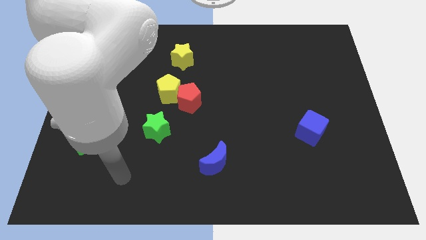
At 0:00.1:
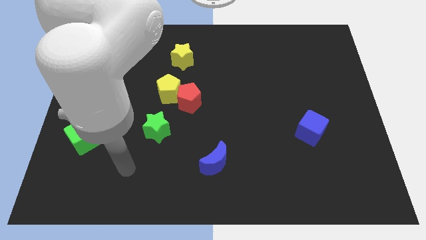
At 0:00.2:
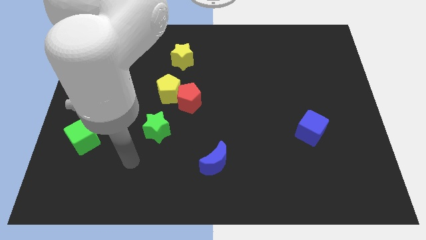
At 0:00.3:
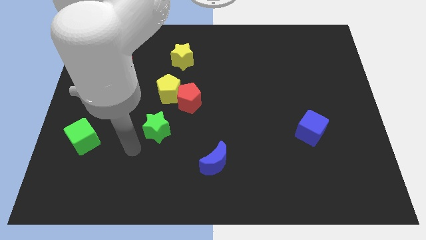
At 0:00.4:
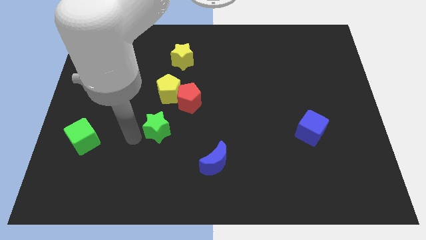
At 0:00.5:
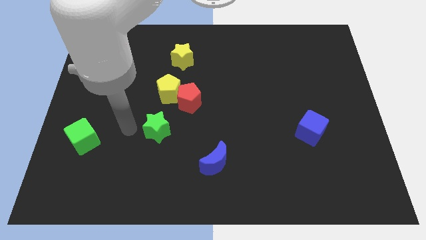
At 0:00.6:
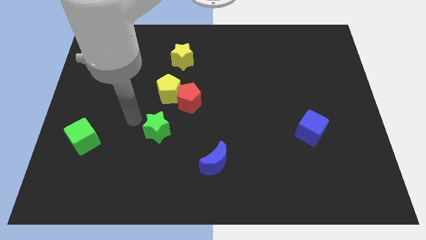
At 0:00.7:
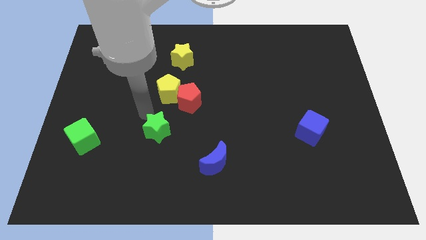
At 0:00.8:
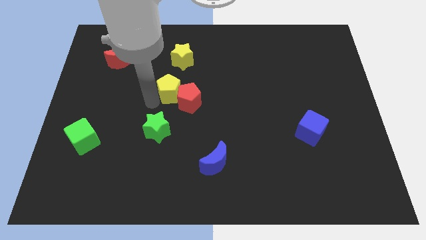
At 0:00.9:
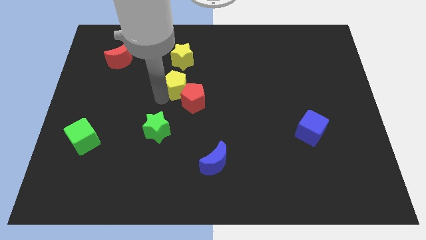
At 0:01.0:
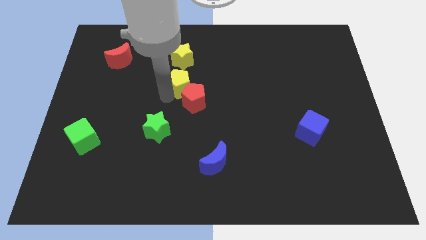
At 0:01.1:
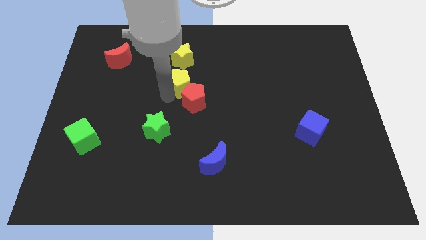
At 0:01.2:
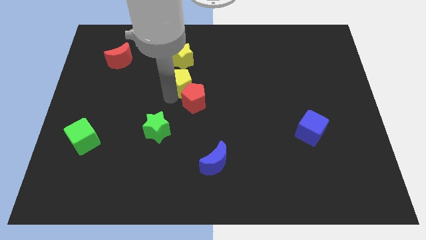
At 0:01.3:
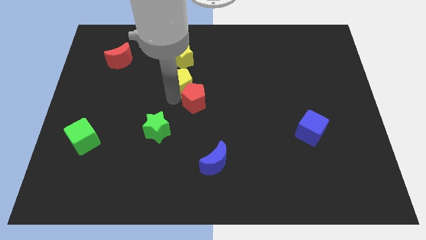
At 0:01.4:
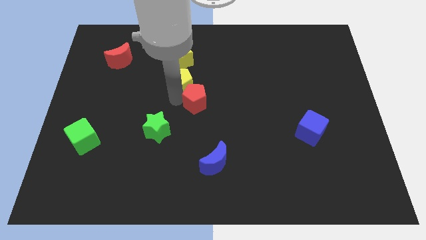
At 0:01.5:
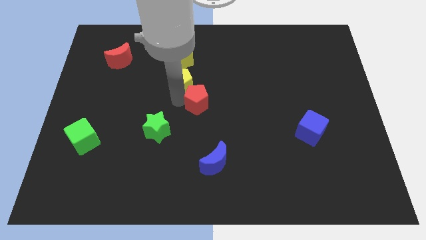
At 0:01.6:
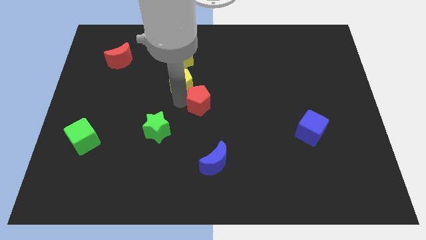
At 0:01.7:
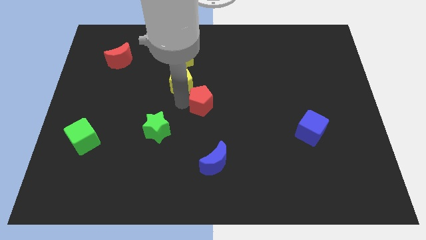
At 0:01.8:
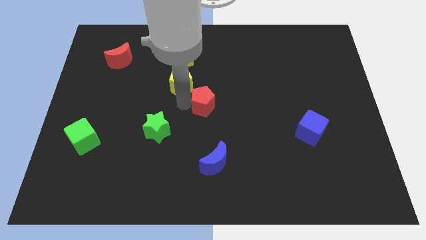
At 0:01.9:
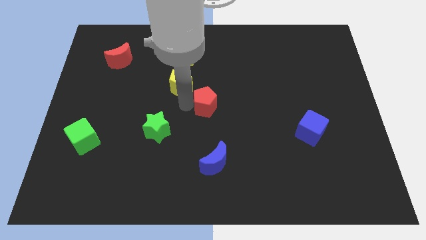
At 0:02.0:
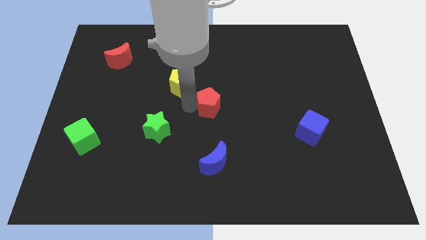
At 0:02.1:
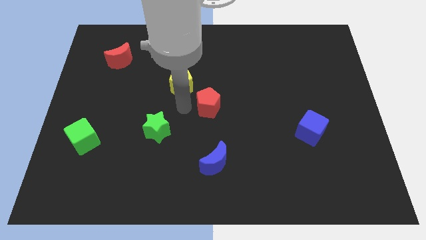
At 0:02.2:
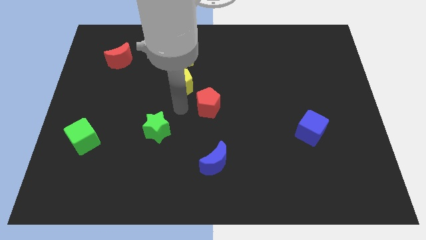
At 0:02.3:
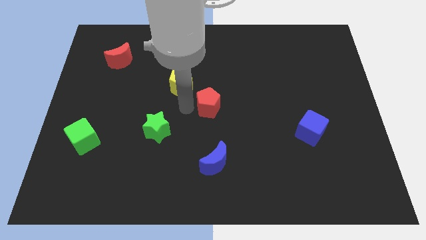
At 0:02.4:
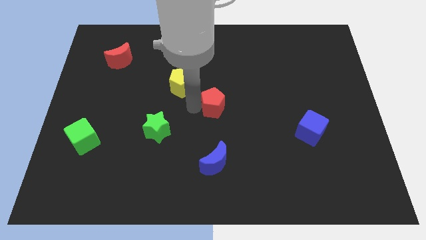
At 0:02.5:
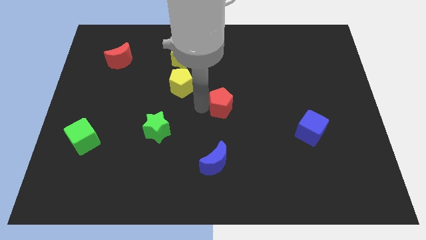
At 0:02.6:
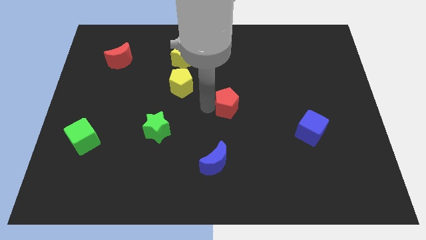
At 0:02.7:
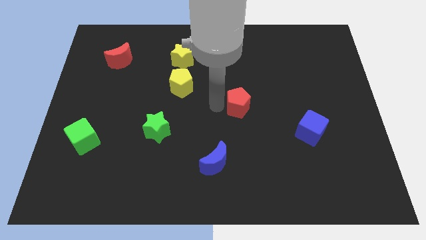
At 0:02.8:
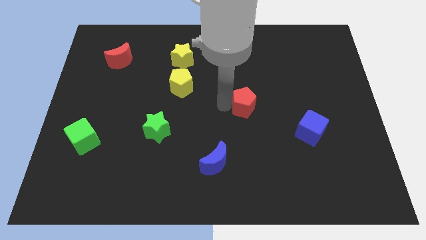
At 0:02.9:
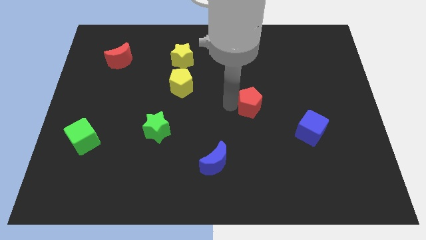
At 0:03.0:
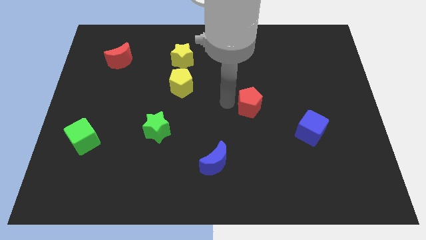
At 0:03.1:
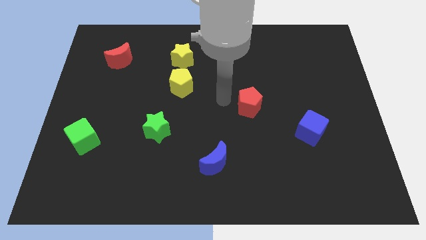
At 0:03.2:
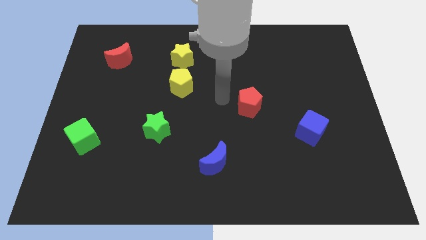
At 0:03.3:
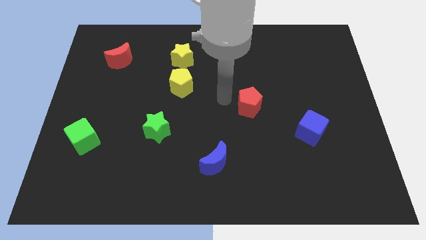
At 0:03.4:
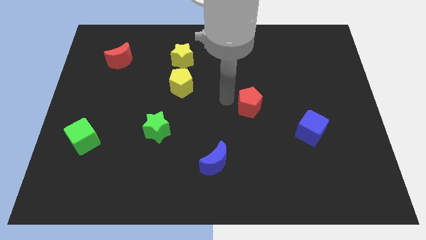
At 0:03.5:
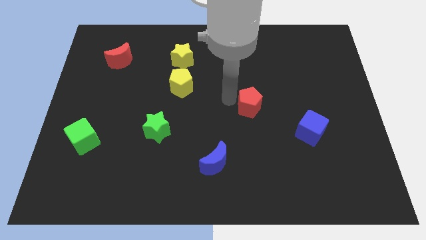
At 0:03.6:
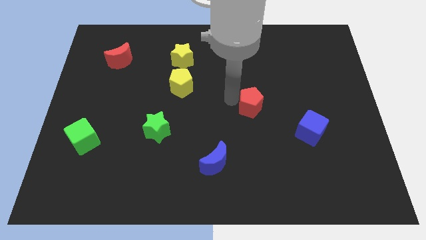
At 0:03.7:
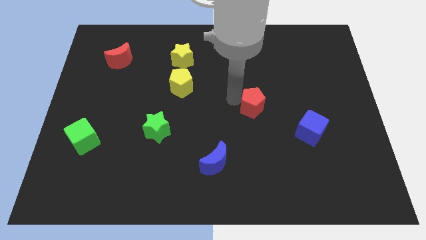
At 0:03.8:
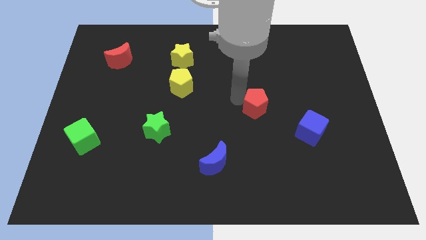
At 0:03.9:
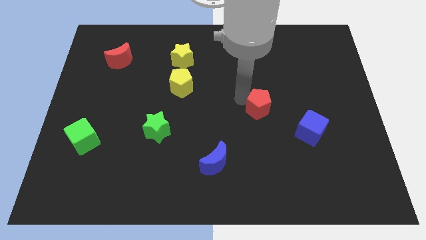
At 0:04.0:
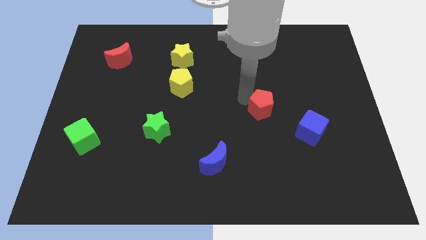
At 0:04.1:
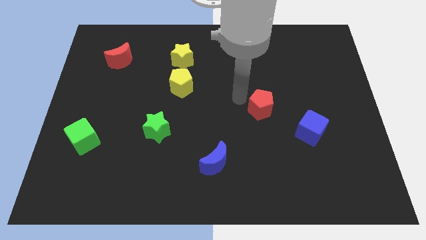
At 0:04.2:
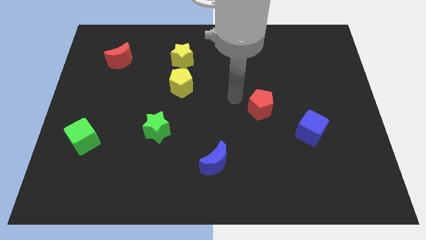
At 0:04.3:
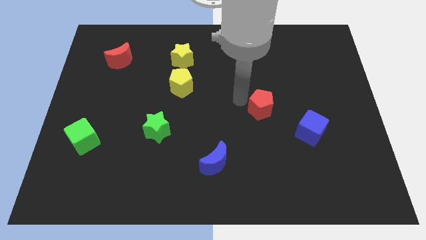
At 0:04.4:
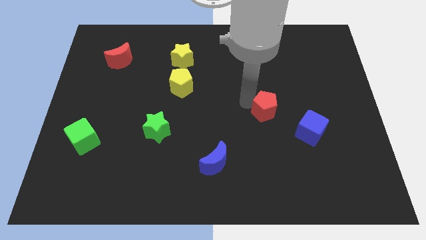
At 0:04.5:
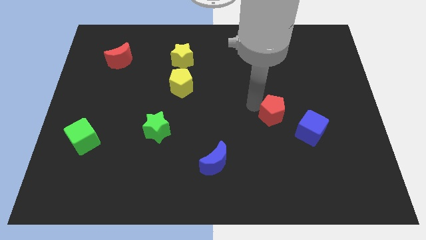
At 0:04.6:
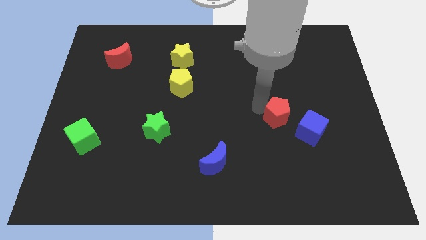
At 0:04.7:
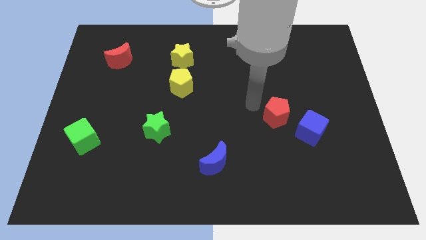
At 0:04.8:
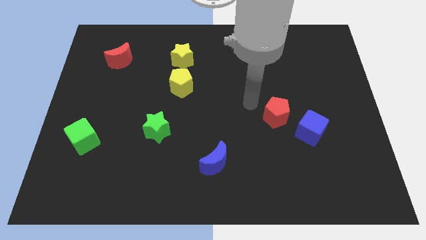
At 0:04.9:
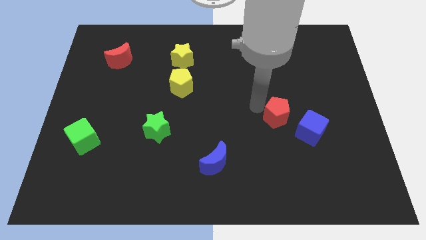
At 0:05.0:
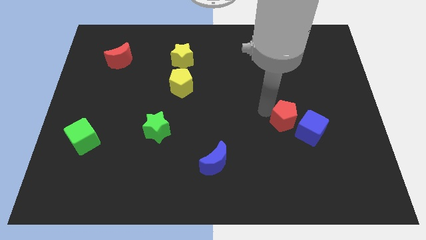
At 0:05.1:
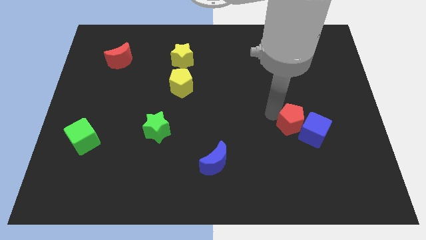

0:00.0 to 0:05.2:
put the red pentagon next to the blue cube

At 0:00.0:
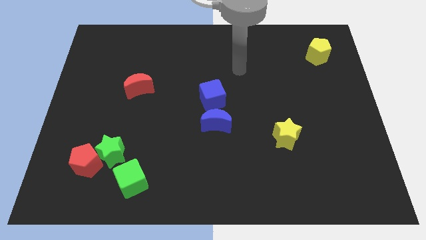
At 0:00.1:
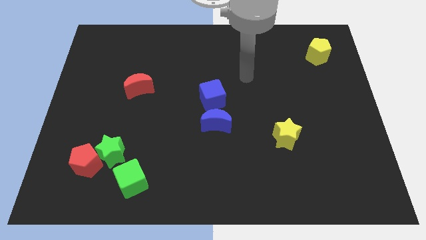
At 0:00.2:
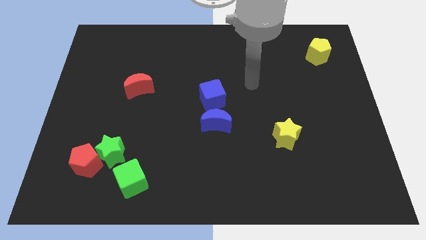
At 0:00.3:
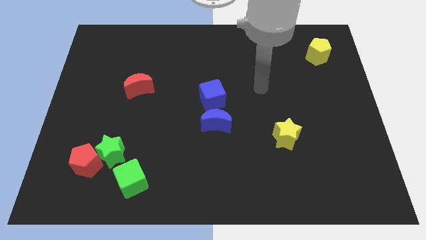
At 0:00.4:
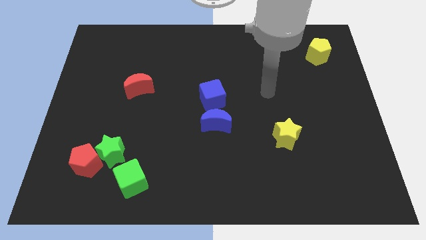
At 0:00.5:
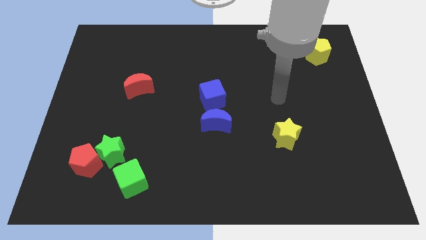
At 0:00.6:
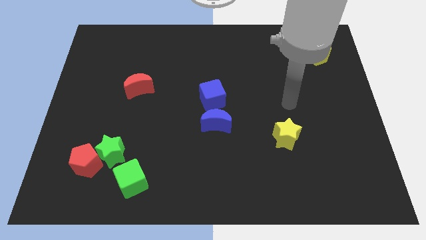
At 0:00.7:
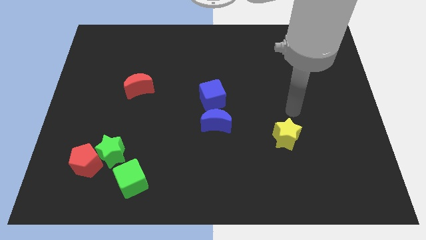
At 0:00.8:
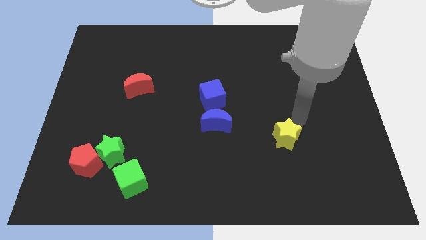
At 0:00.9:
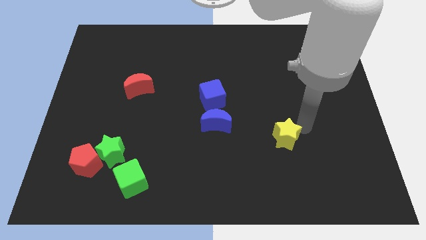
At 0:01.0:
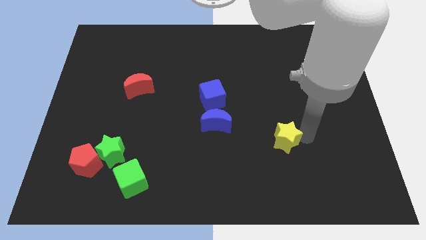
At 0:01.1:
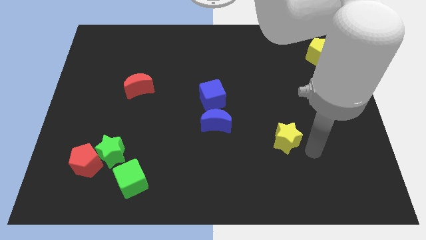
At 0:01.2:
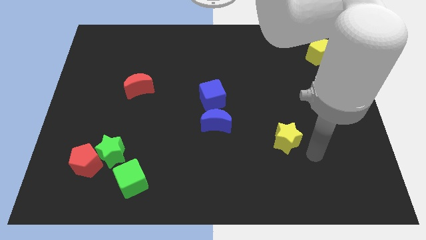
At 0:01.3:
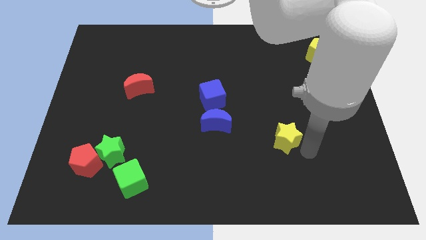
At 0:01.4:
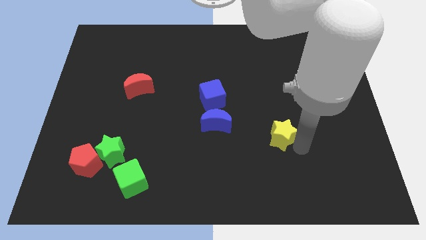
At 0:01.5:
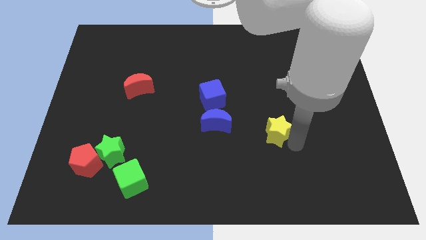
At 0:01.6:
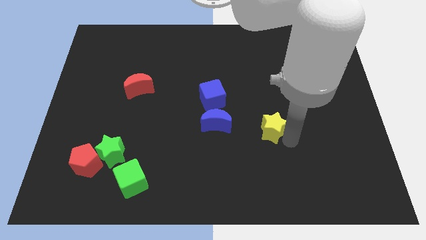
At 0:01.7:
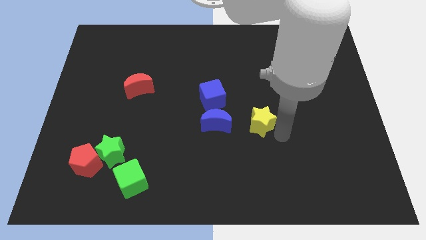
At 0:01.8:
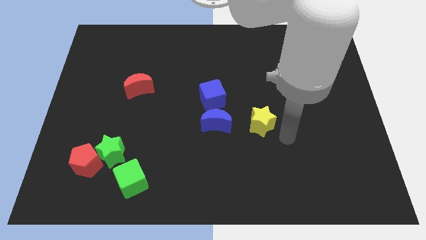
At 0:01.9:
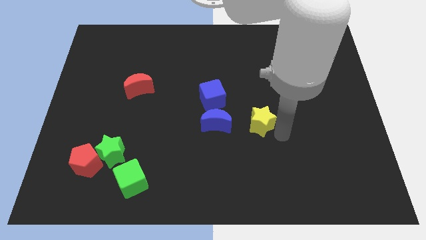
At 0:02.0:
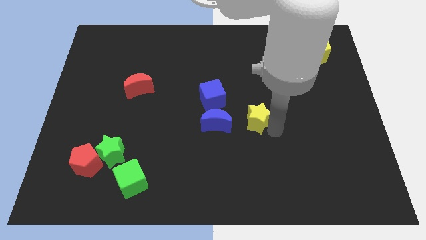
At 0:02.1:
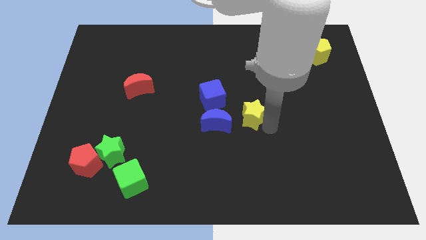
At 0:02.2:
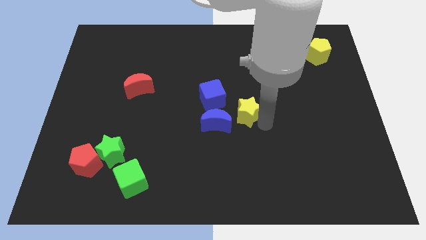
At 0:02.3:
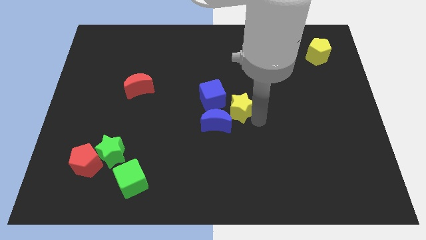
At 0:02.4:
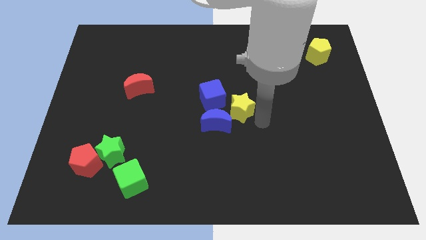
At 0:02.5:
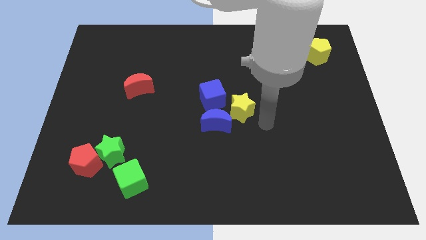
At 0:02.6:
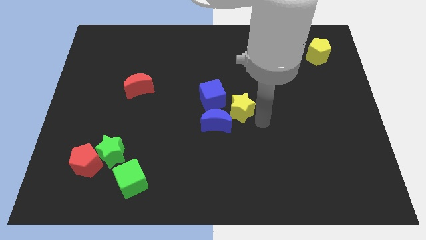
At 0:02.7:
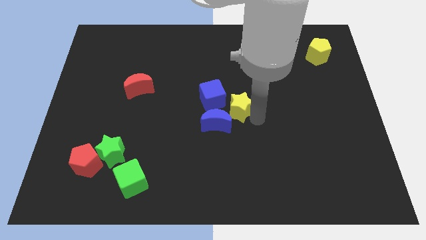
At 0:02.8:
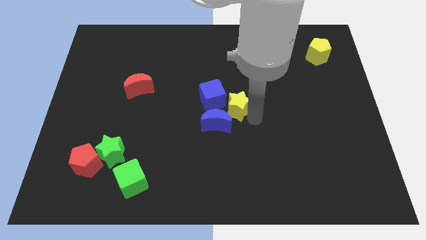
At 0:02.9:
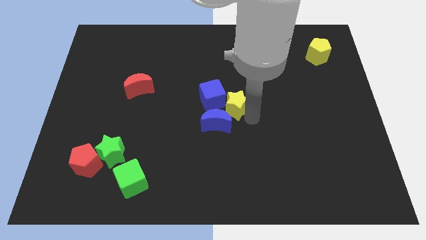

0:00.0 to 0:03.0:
push the yellow star next to the blue cube

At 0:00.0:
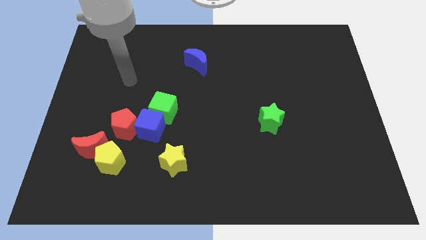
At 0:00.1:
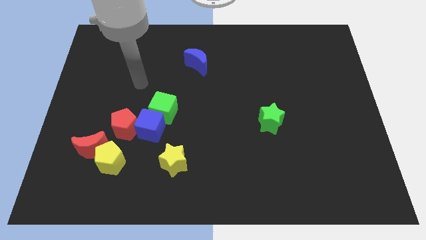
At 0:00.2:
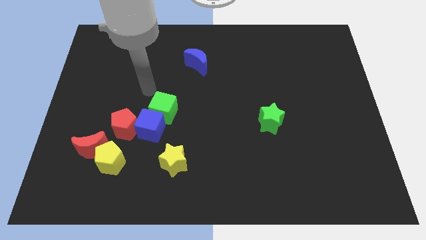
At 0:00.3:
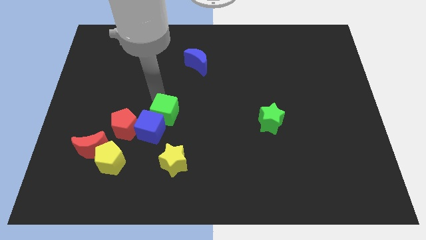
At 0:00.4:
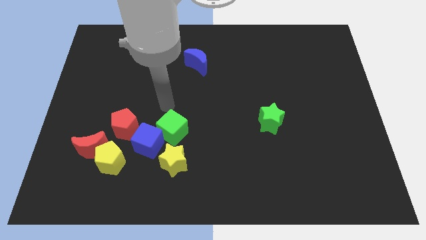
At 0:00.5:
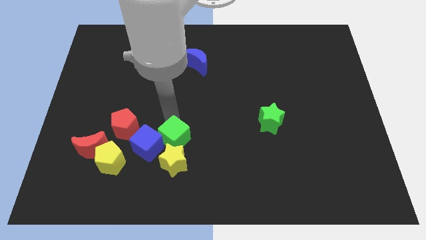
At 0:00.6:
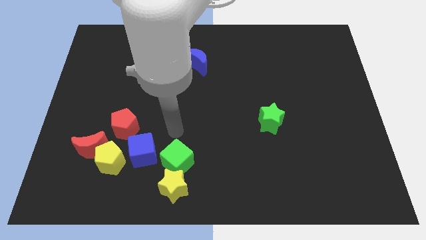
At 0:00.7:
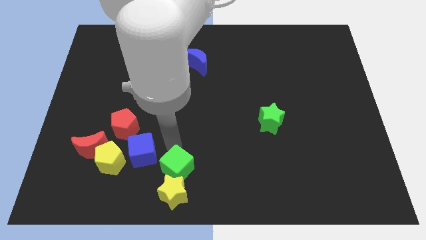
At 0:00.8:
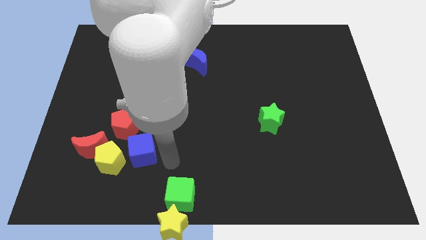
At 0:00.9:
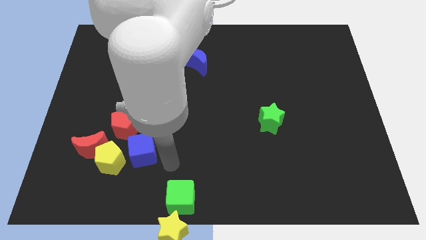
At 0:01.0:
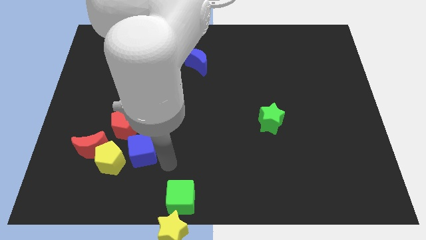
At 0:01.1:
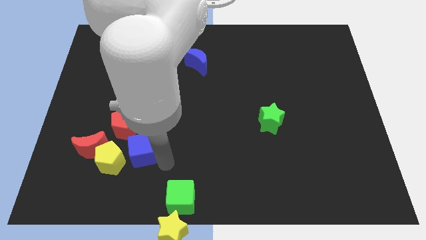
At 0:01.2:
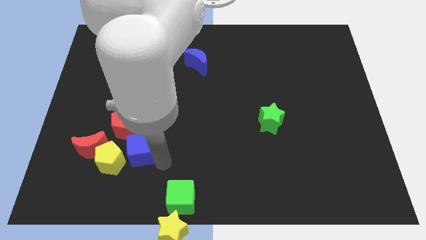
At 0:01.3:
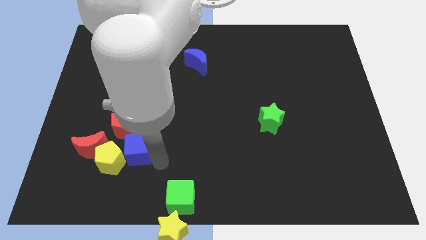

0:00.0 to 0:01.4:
push the blue cube close to the yellow pentagon
